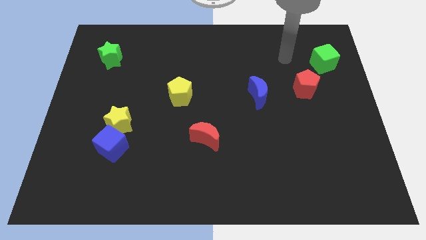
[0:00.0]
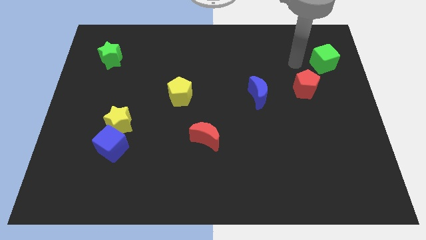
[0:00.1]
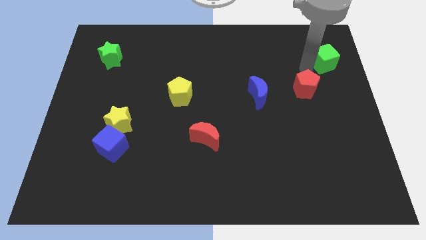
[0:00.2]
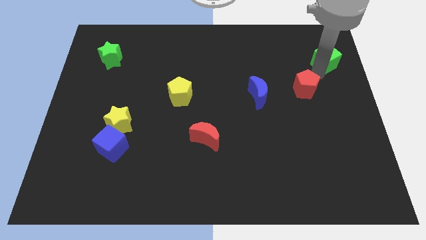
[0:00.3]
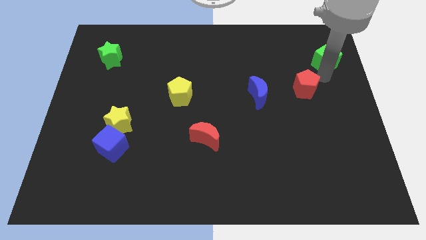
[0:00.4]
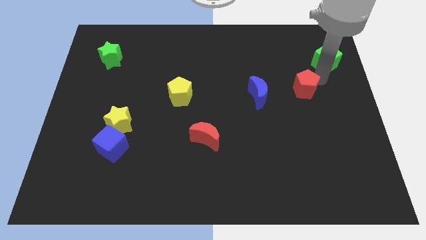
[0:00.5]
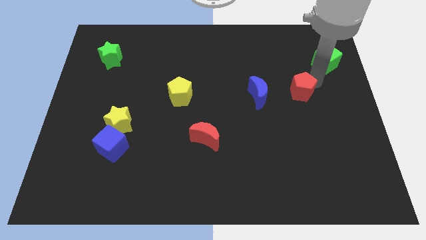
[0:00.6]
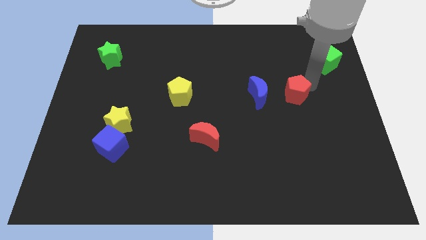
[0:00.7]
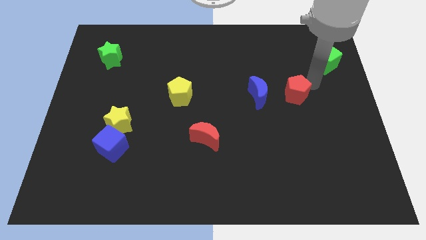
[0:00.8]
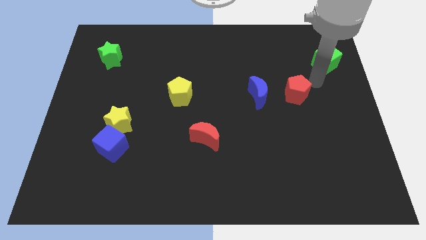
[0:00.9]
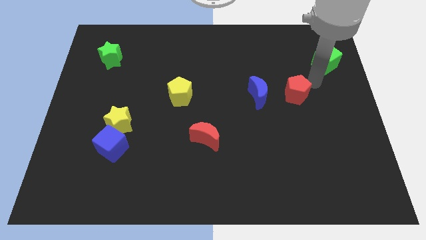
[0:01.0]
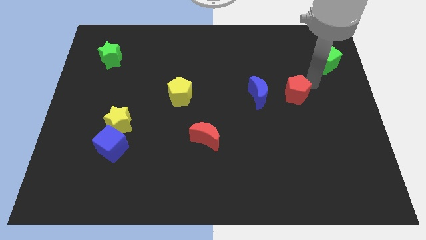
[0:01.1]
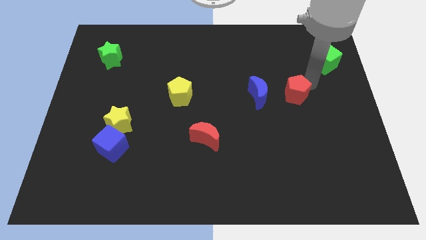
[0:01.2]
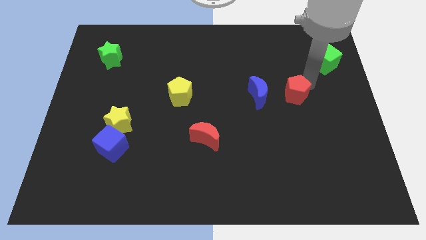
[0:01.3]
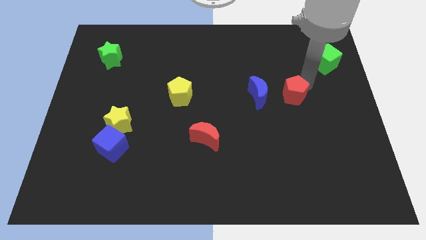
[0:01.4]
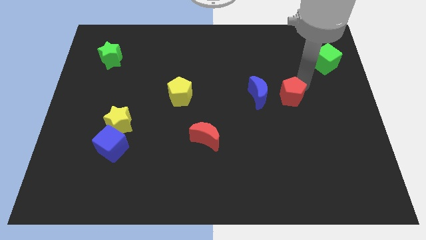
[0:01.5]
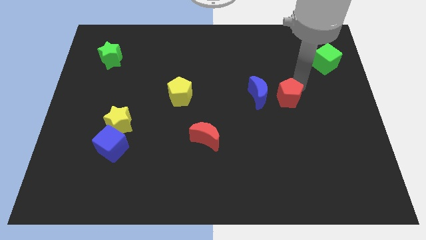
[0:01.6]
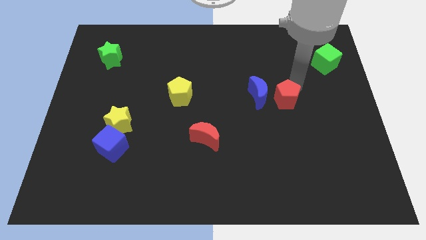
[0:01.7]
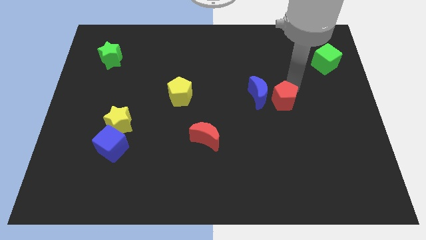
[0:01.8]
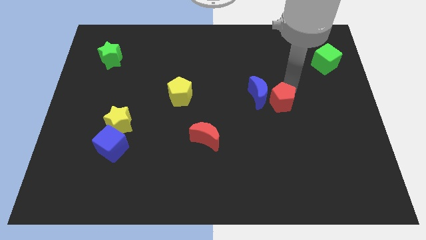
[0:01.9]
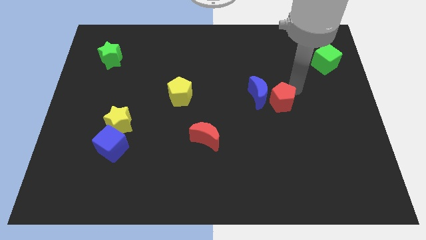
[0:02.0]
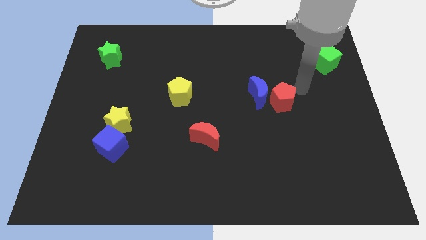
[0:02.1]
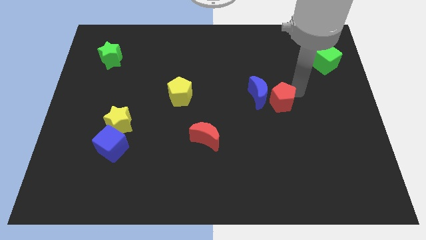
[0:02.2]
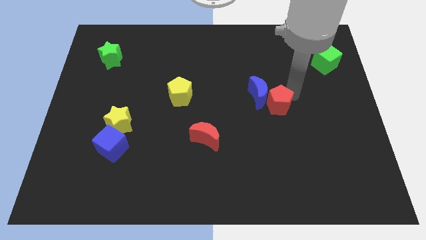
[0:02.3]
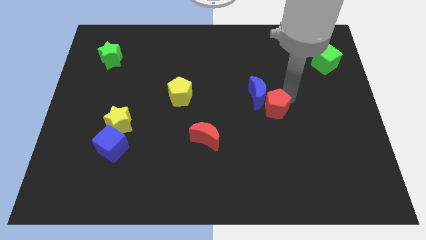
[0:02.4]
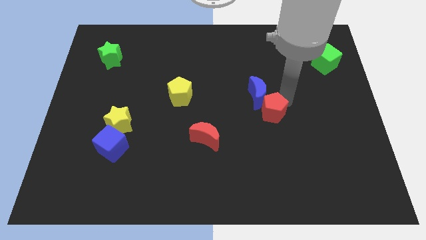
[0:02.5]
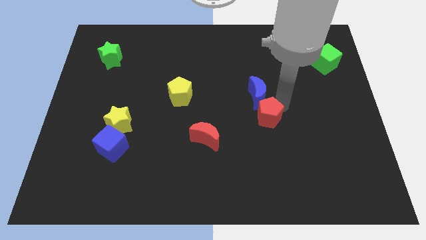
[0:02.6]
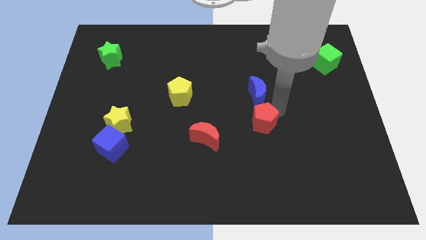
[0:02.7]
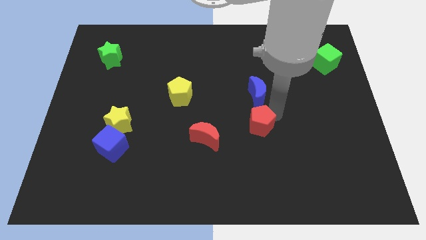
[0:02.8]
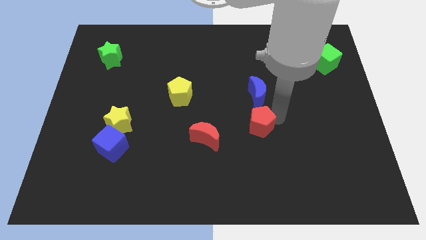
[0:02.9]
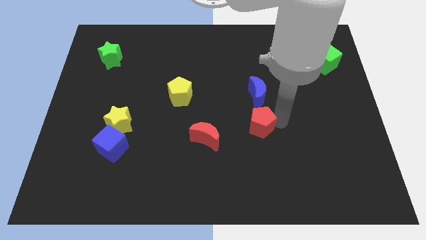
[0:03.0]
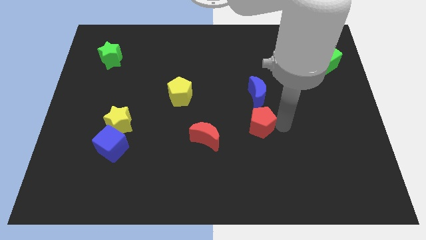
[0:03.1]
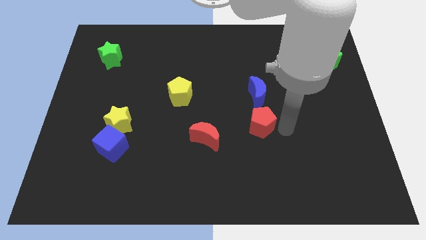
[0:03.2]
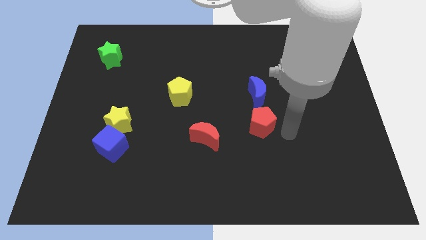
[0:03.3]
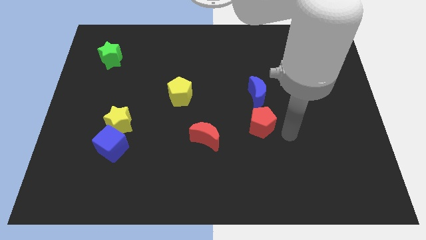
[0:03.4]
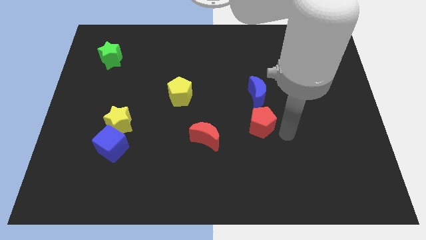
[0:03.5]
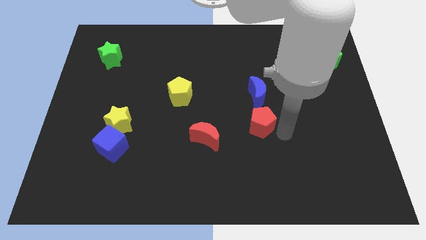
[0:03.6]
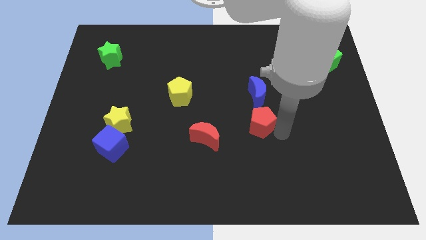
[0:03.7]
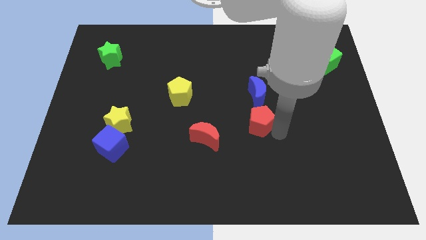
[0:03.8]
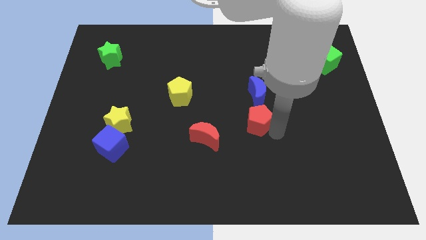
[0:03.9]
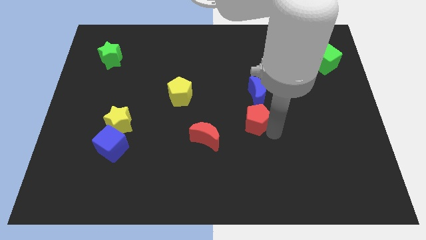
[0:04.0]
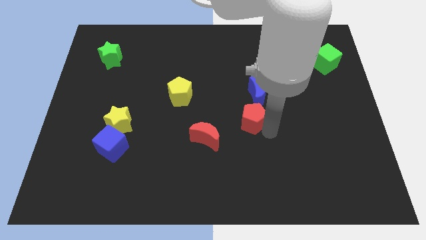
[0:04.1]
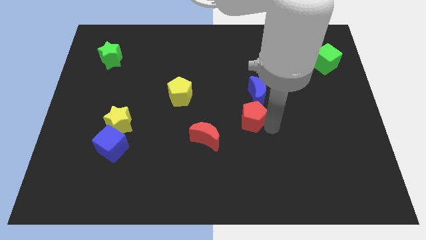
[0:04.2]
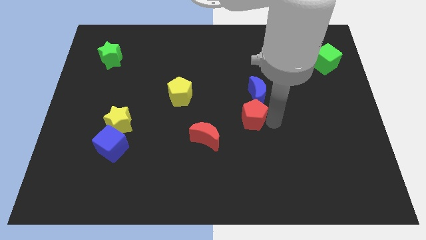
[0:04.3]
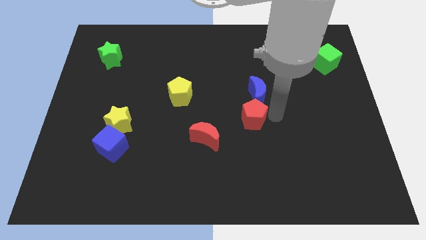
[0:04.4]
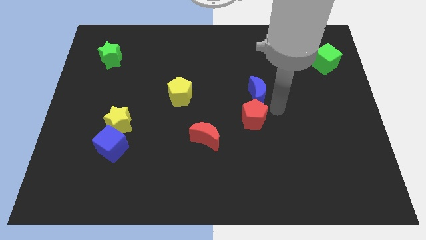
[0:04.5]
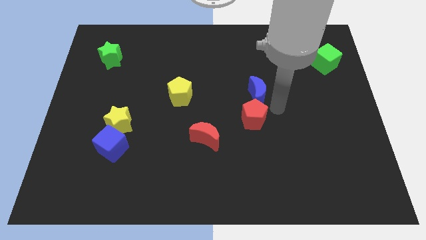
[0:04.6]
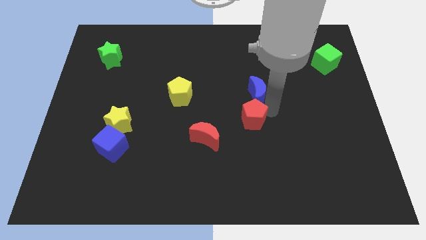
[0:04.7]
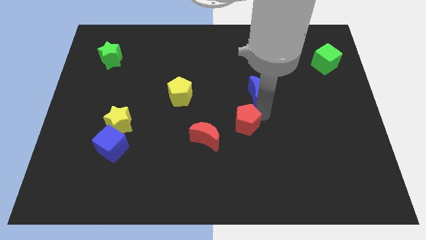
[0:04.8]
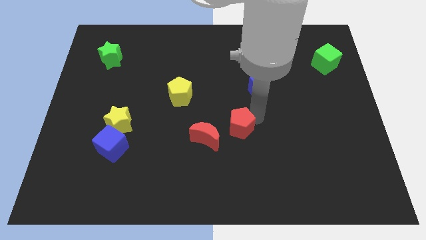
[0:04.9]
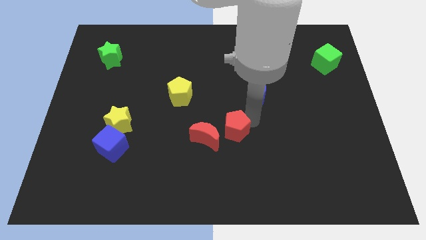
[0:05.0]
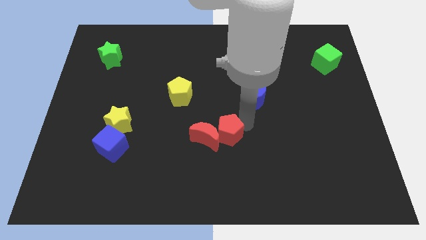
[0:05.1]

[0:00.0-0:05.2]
push the red pentagon to the red moon

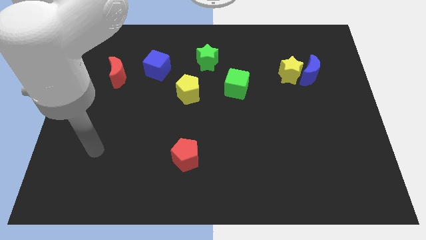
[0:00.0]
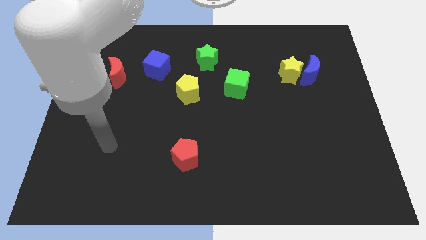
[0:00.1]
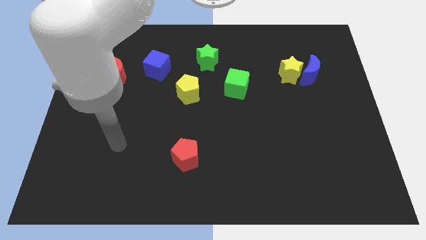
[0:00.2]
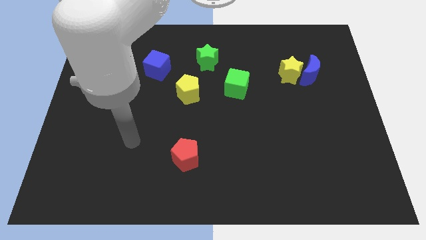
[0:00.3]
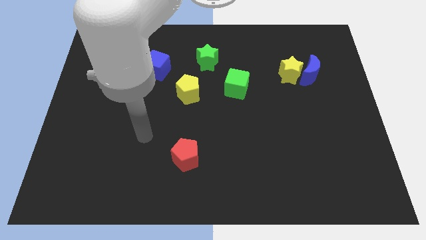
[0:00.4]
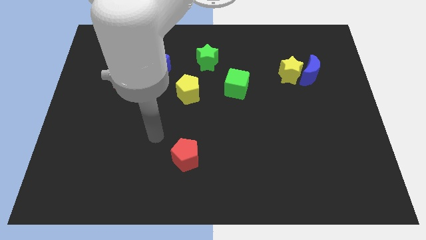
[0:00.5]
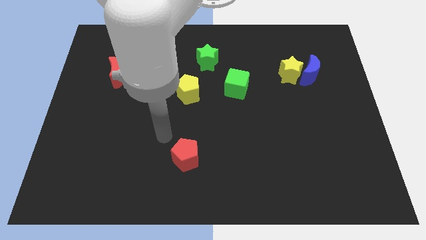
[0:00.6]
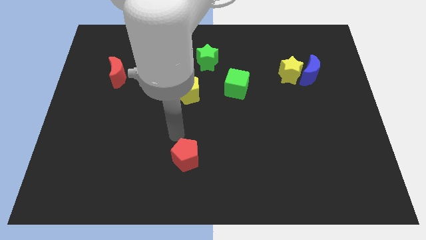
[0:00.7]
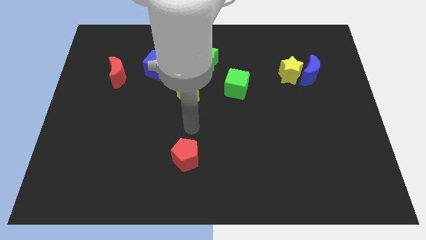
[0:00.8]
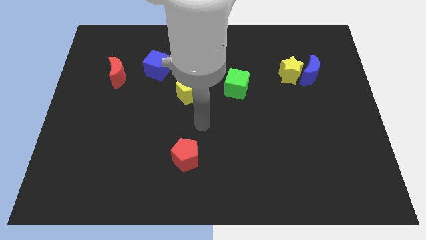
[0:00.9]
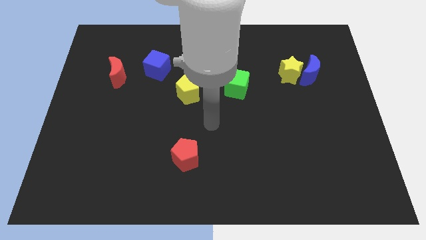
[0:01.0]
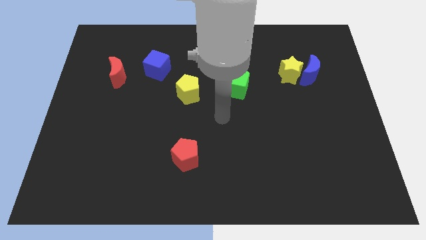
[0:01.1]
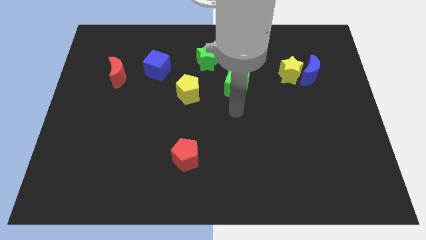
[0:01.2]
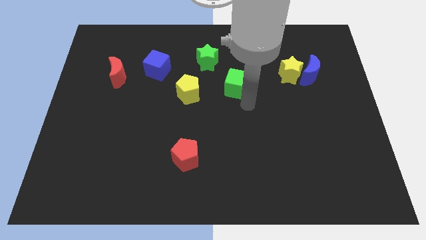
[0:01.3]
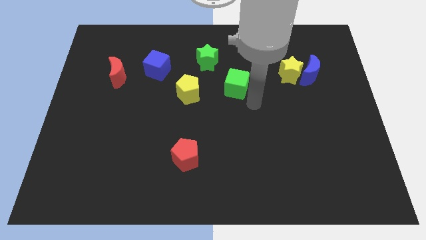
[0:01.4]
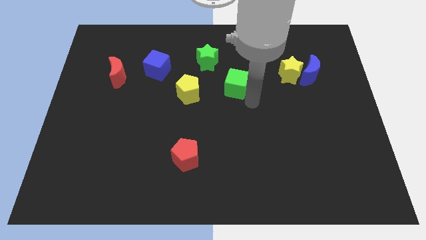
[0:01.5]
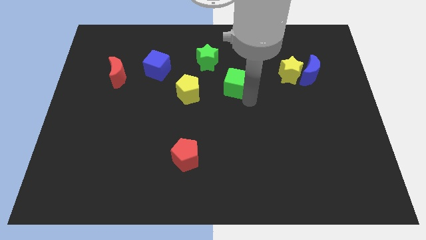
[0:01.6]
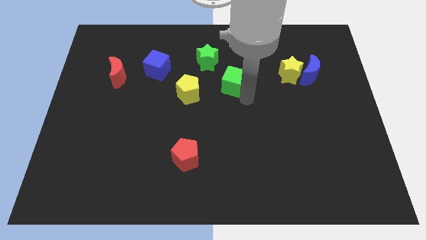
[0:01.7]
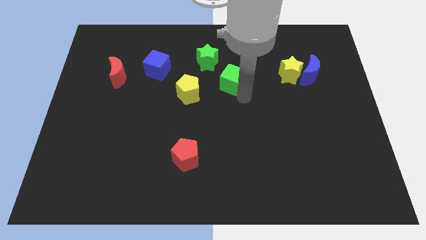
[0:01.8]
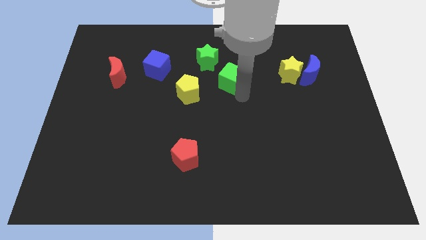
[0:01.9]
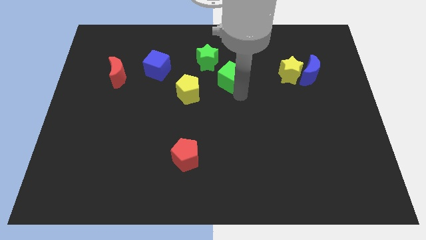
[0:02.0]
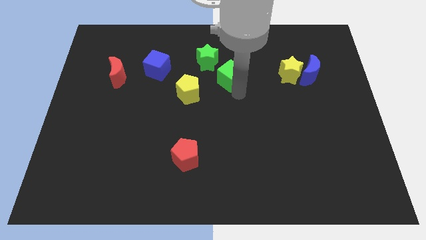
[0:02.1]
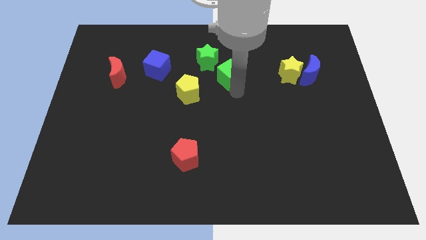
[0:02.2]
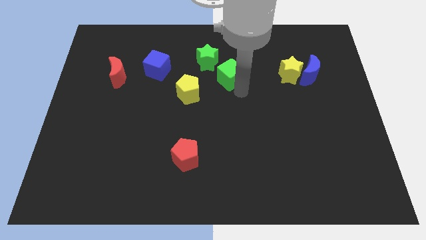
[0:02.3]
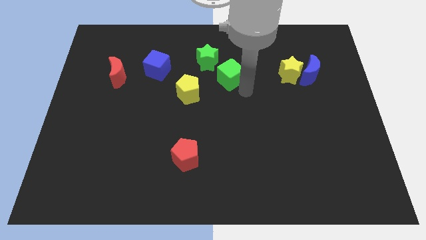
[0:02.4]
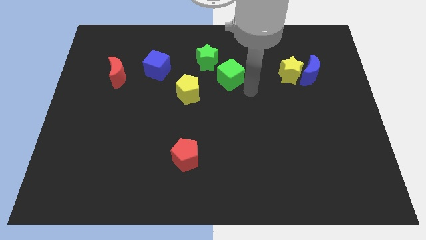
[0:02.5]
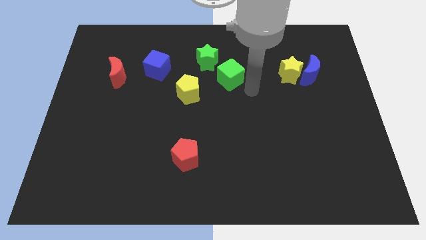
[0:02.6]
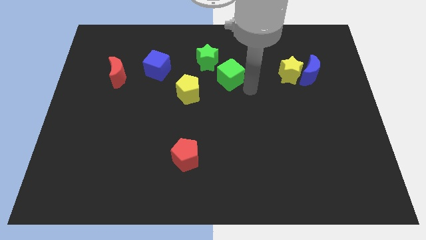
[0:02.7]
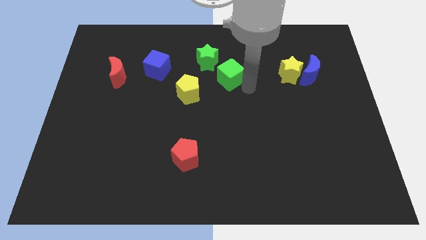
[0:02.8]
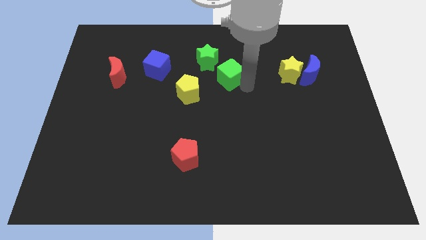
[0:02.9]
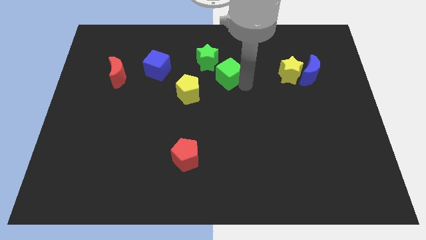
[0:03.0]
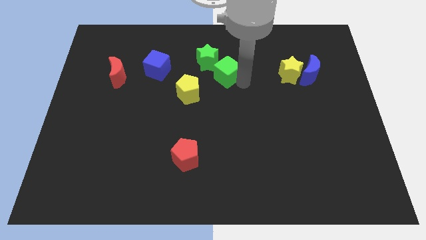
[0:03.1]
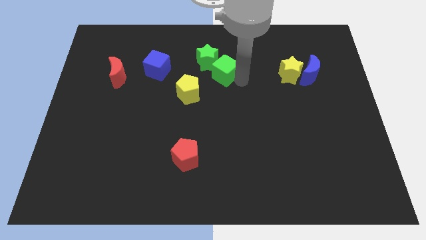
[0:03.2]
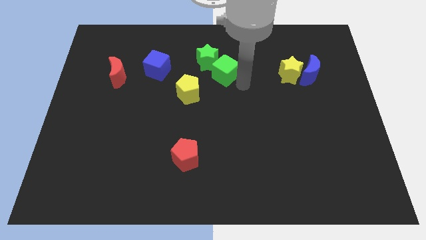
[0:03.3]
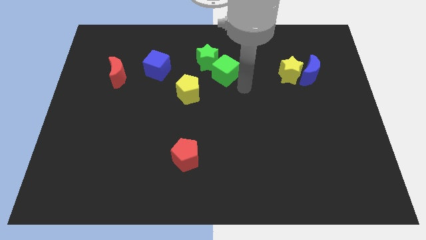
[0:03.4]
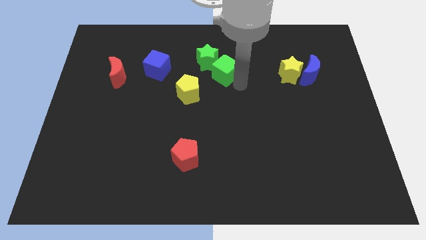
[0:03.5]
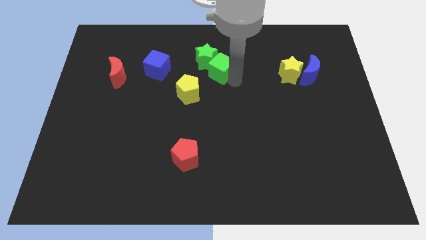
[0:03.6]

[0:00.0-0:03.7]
push the green cube towards the green star
